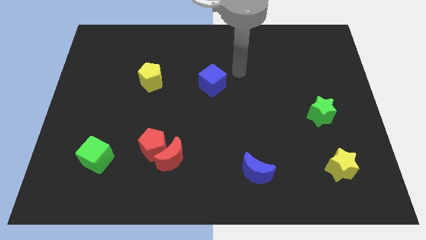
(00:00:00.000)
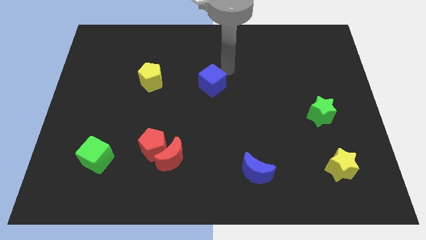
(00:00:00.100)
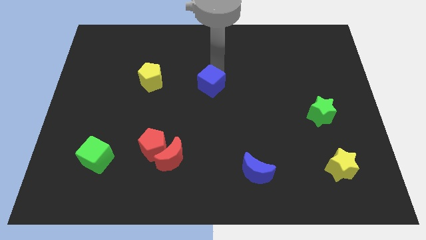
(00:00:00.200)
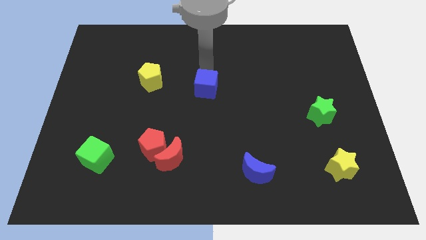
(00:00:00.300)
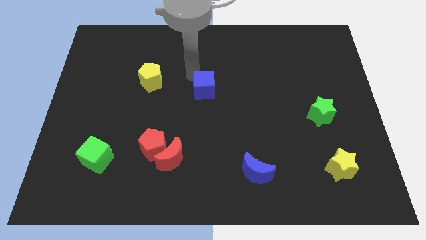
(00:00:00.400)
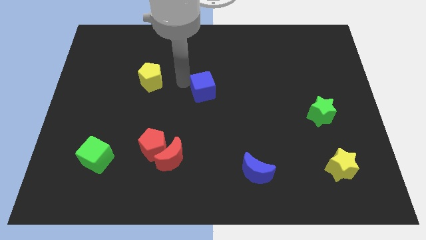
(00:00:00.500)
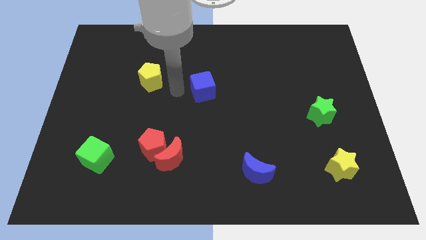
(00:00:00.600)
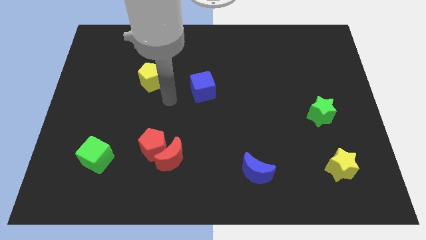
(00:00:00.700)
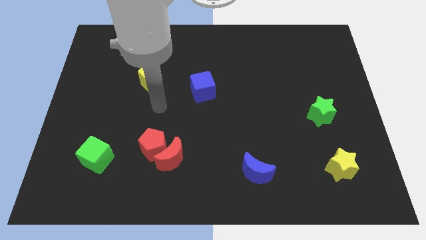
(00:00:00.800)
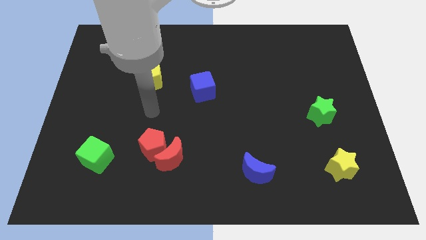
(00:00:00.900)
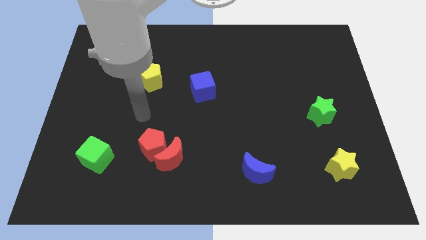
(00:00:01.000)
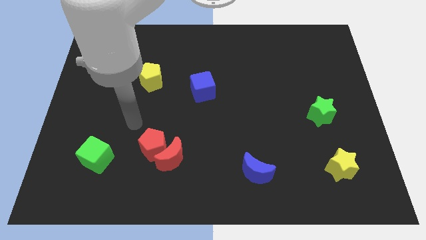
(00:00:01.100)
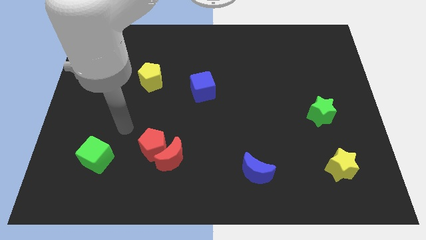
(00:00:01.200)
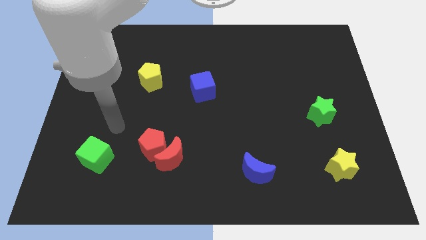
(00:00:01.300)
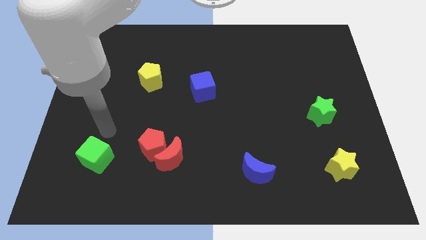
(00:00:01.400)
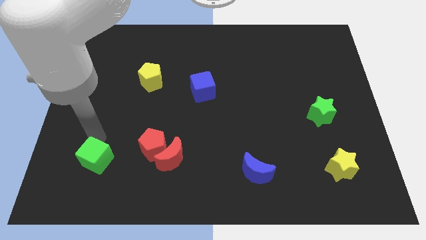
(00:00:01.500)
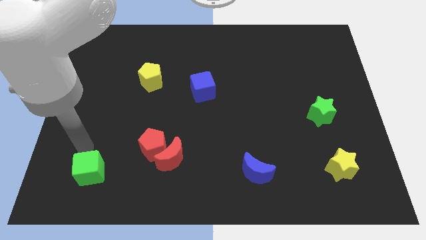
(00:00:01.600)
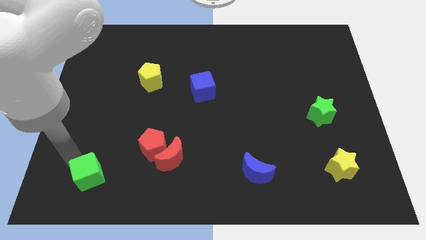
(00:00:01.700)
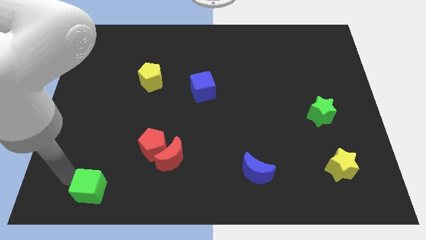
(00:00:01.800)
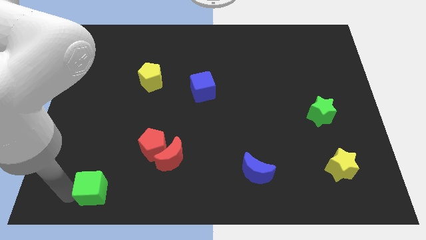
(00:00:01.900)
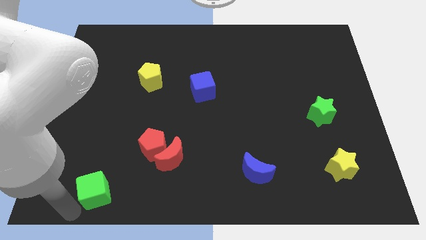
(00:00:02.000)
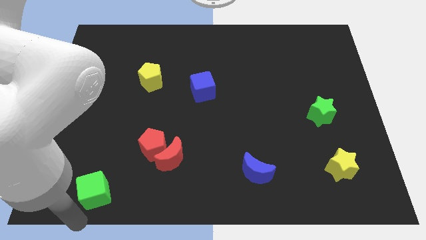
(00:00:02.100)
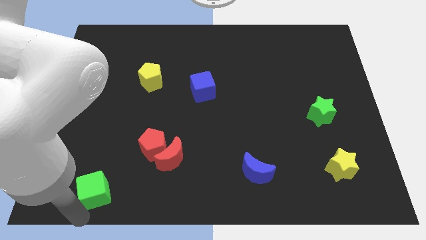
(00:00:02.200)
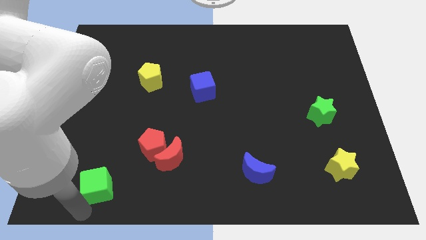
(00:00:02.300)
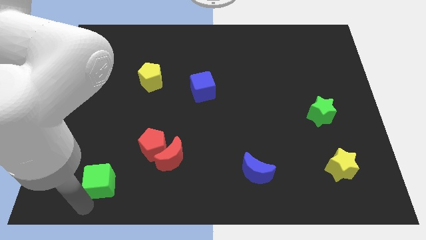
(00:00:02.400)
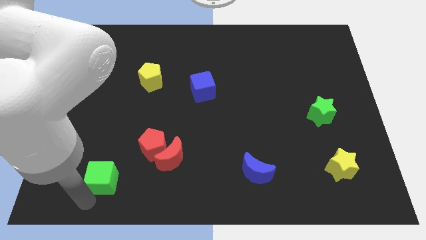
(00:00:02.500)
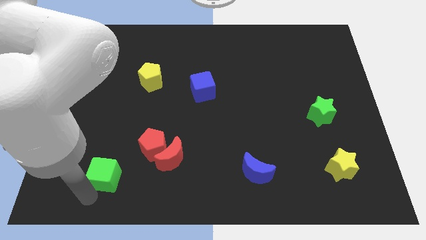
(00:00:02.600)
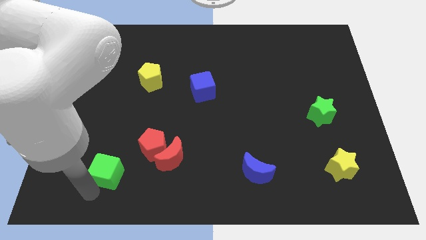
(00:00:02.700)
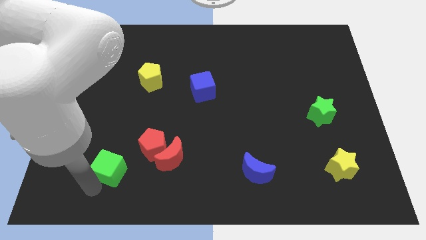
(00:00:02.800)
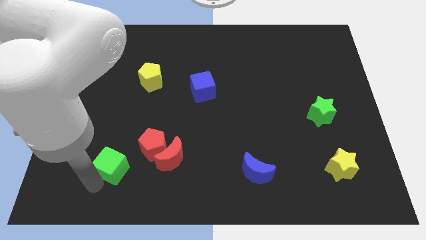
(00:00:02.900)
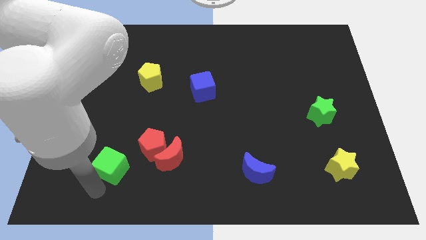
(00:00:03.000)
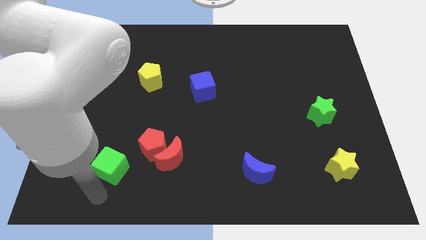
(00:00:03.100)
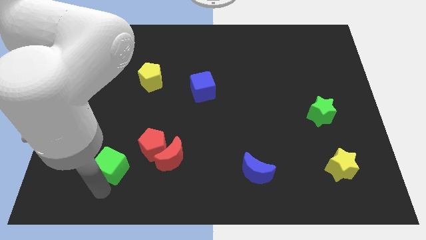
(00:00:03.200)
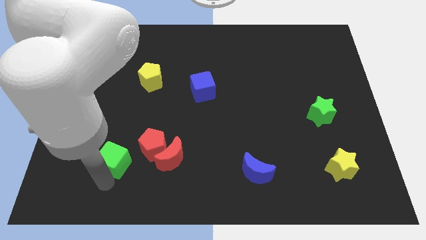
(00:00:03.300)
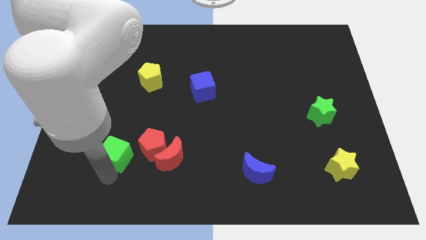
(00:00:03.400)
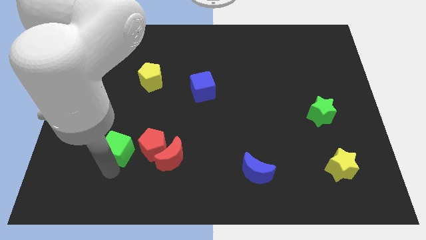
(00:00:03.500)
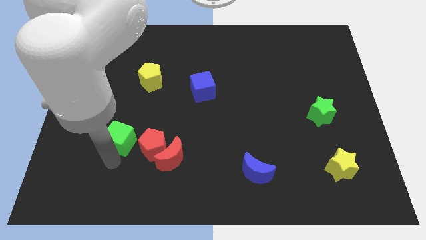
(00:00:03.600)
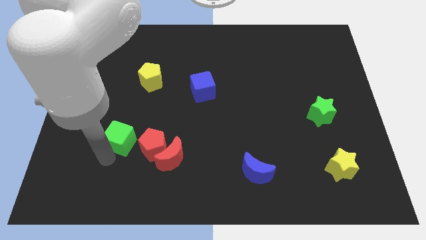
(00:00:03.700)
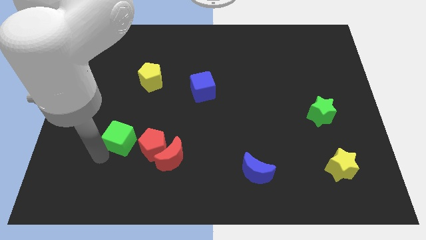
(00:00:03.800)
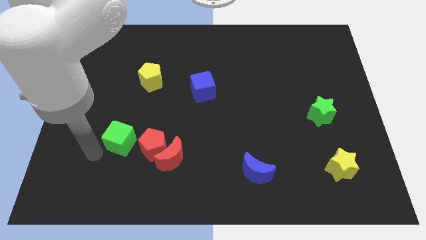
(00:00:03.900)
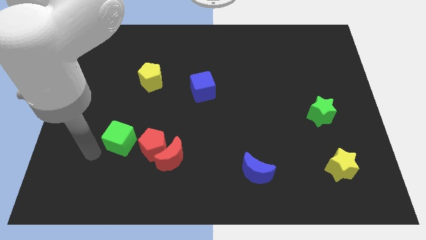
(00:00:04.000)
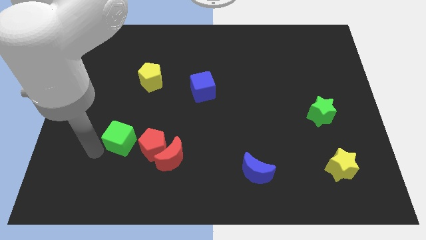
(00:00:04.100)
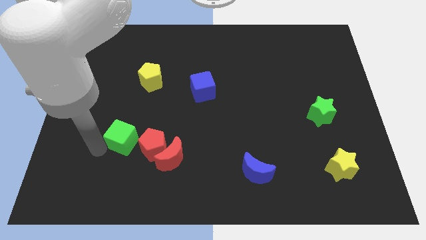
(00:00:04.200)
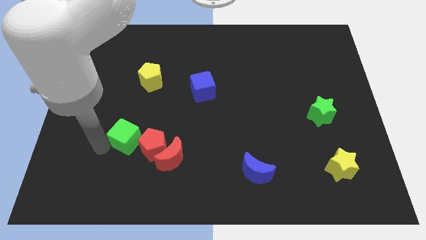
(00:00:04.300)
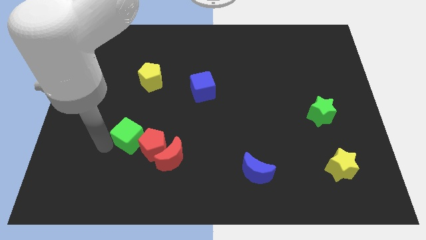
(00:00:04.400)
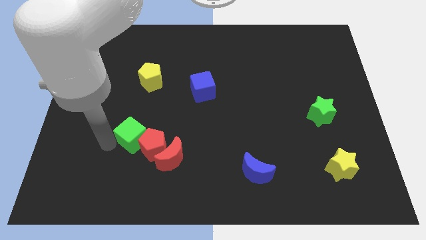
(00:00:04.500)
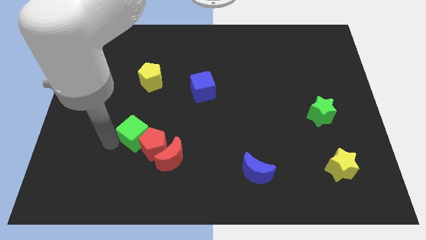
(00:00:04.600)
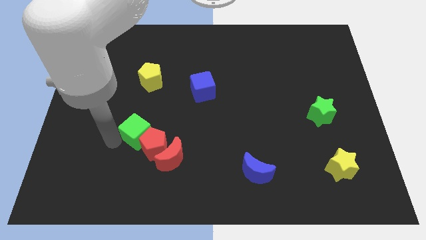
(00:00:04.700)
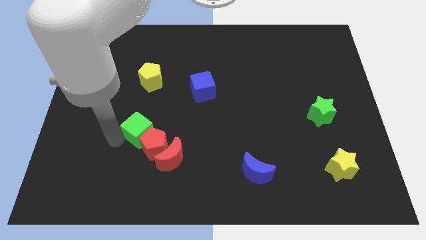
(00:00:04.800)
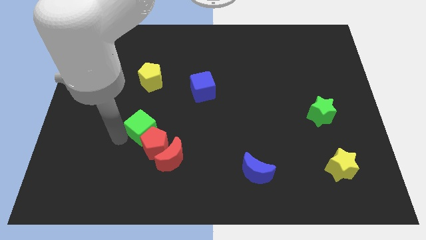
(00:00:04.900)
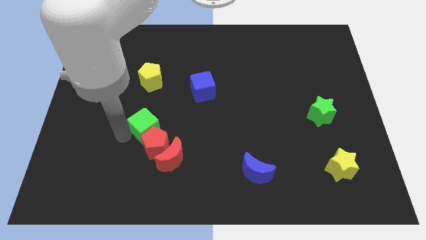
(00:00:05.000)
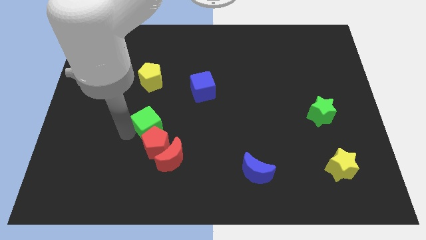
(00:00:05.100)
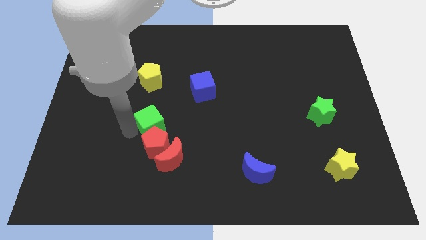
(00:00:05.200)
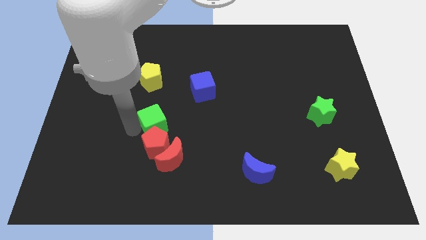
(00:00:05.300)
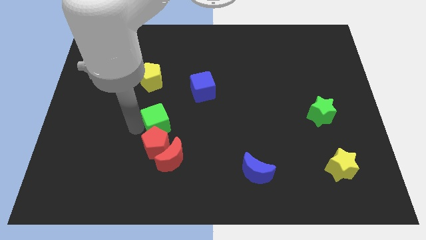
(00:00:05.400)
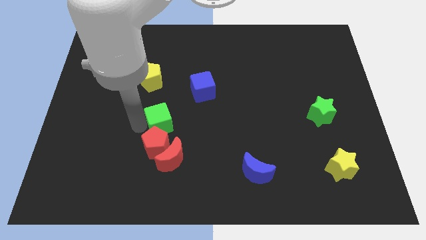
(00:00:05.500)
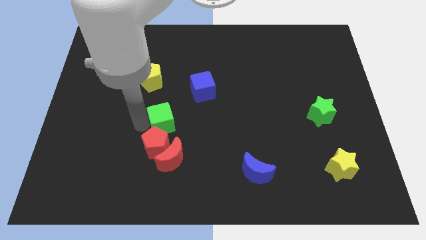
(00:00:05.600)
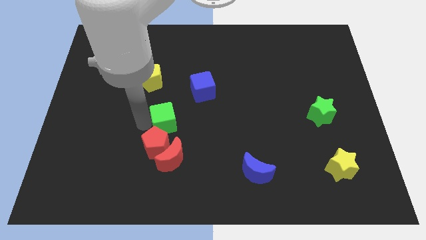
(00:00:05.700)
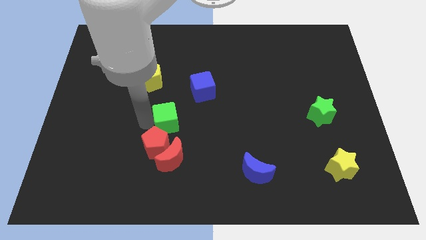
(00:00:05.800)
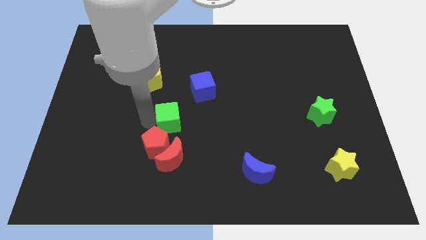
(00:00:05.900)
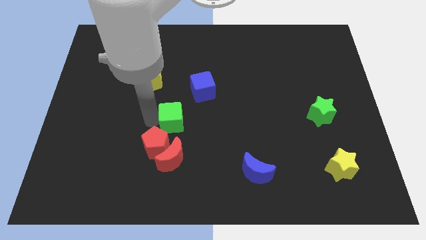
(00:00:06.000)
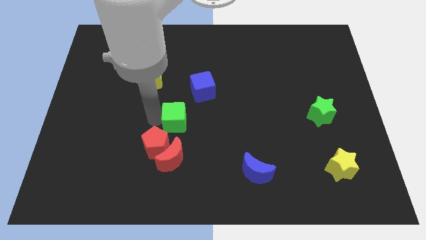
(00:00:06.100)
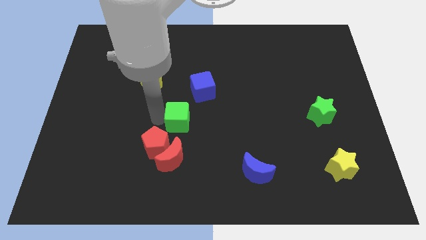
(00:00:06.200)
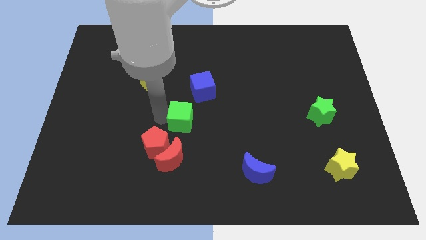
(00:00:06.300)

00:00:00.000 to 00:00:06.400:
push the green cube to the bottom of the blue cube

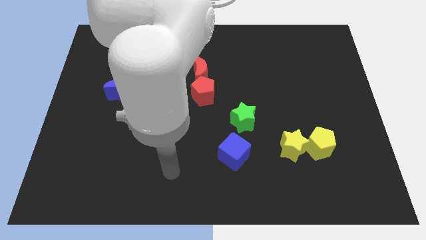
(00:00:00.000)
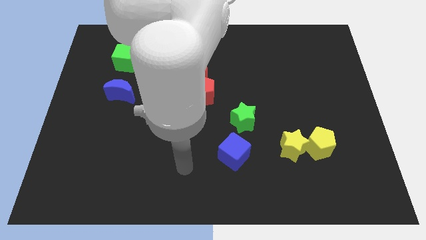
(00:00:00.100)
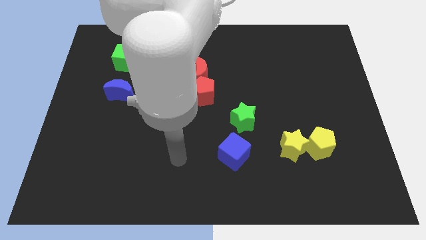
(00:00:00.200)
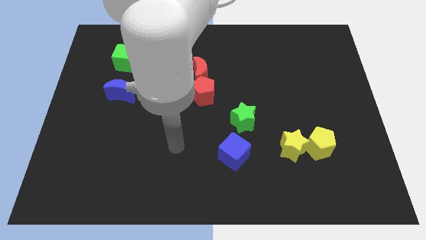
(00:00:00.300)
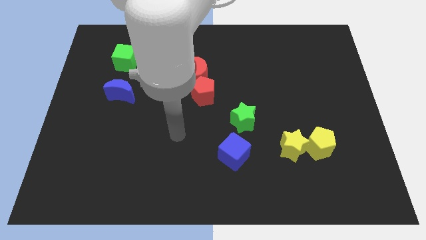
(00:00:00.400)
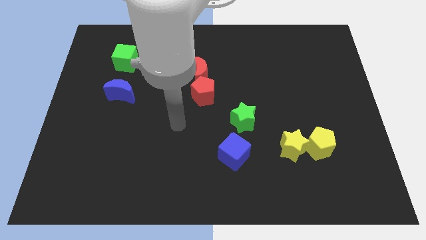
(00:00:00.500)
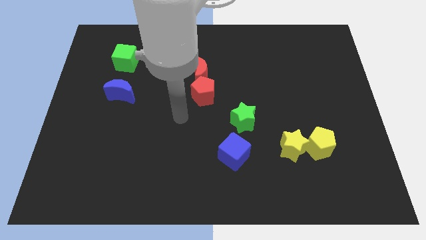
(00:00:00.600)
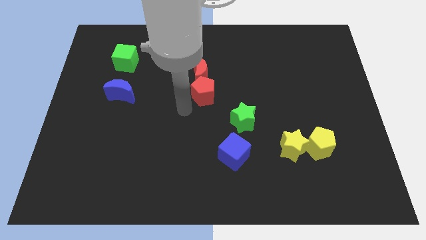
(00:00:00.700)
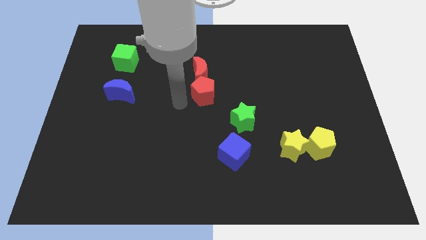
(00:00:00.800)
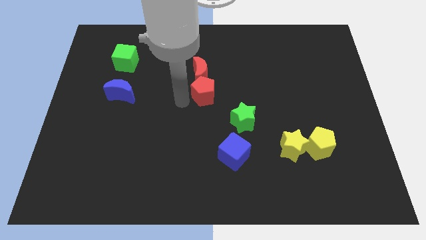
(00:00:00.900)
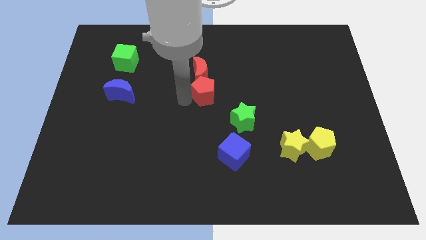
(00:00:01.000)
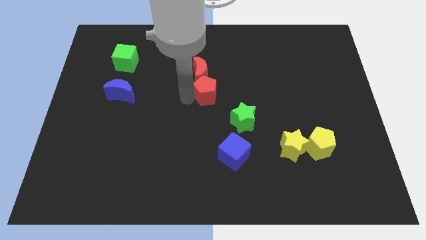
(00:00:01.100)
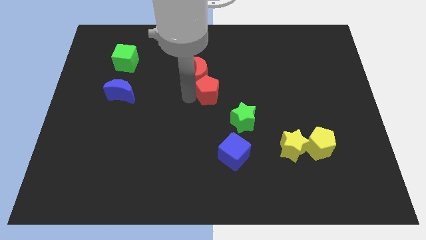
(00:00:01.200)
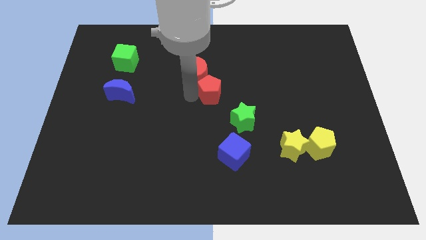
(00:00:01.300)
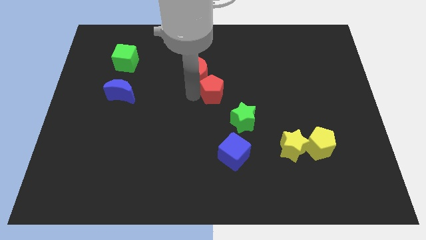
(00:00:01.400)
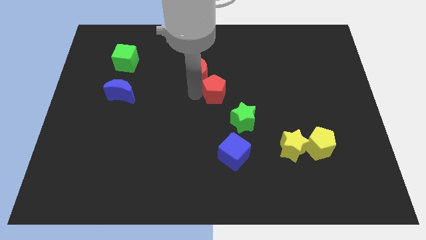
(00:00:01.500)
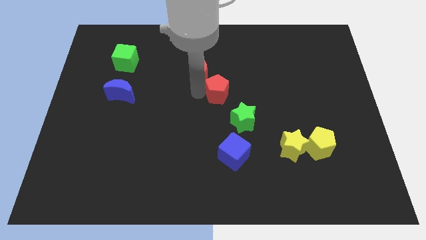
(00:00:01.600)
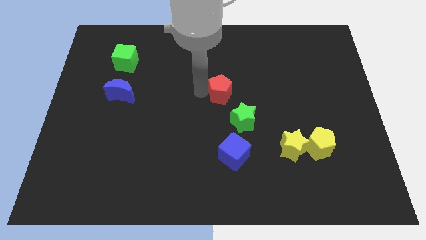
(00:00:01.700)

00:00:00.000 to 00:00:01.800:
move the red pentagon to the top of the green star
